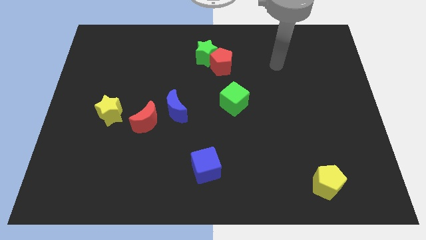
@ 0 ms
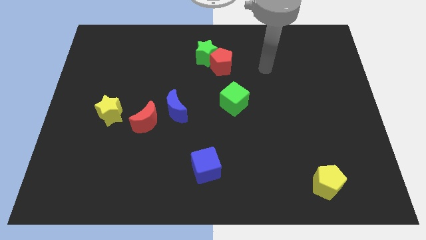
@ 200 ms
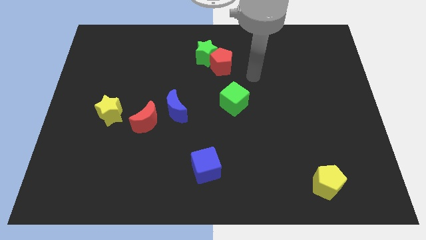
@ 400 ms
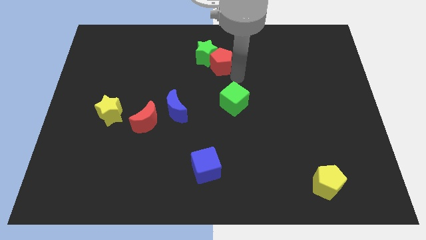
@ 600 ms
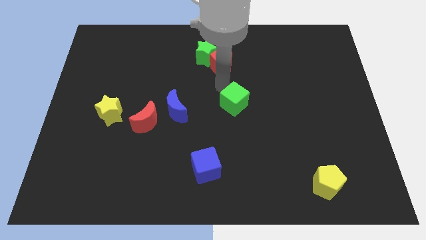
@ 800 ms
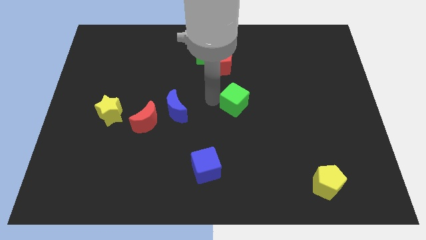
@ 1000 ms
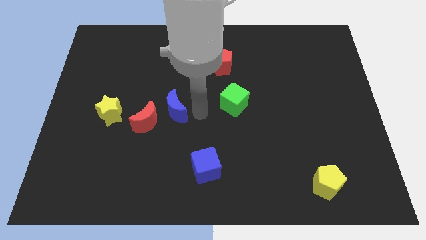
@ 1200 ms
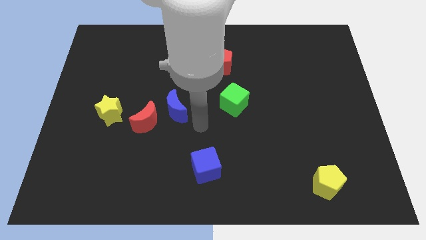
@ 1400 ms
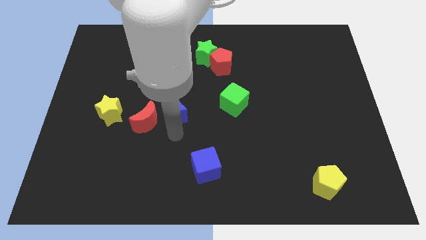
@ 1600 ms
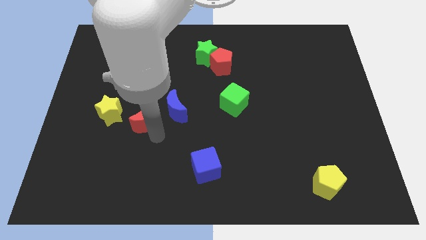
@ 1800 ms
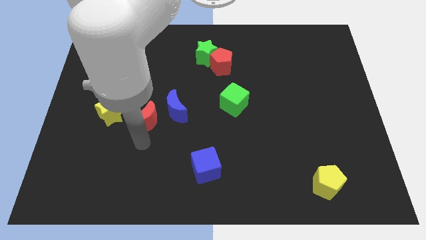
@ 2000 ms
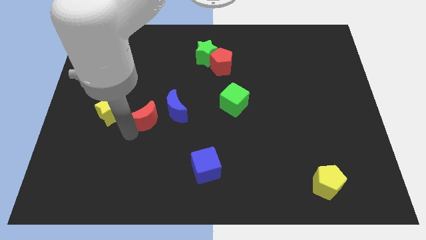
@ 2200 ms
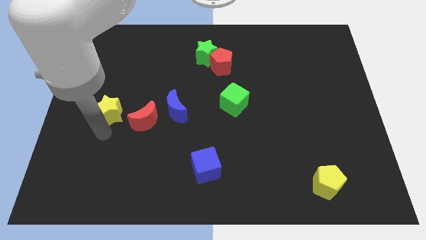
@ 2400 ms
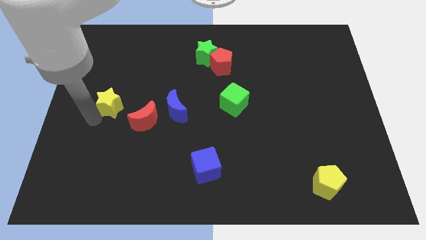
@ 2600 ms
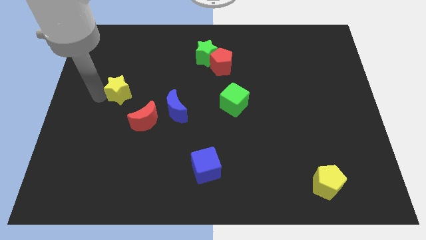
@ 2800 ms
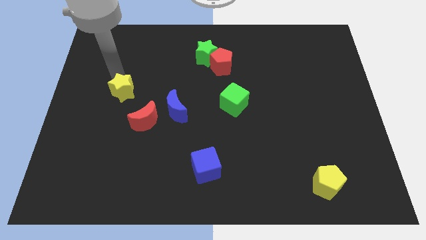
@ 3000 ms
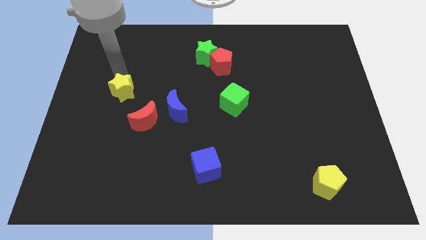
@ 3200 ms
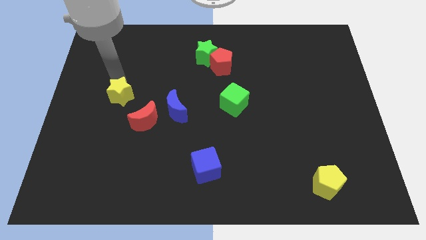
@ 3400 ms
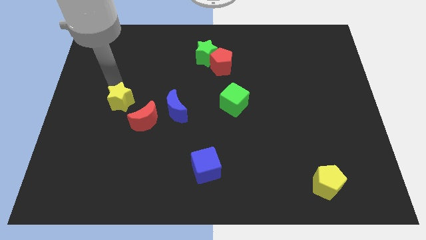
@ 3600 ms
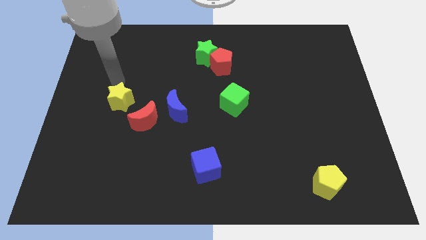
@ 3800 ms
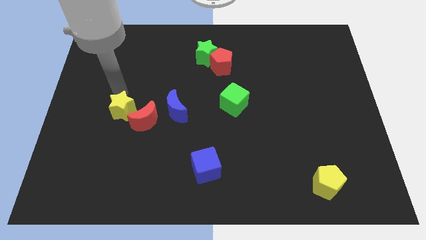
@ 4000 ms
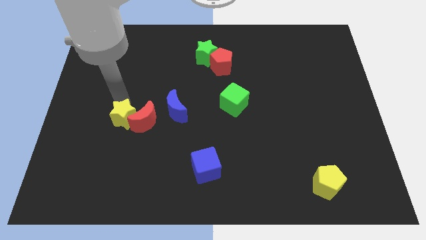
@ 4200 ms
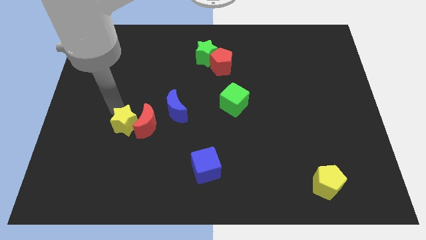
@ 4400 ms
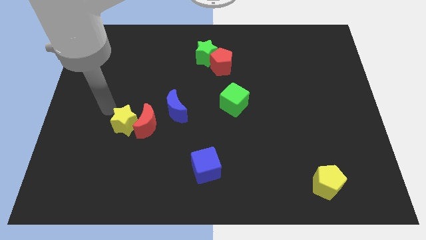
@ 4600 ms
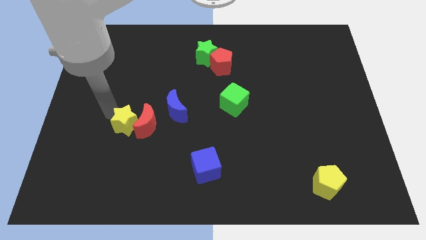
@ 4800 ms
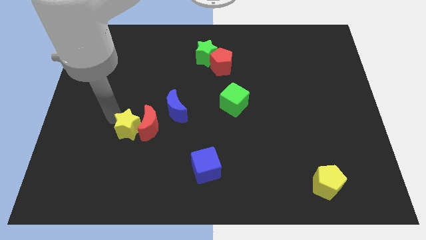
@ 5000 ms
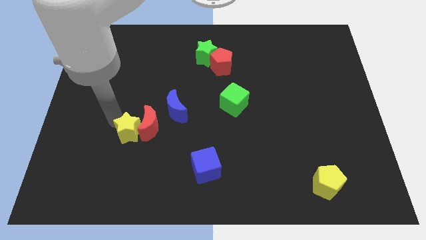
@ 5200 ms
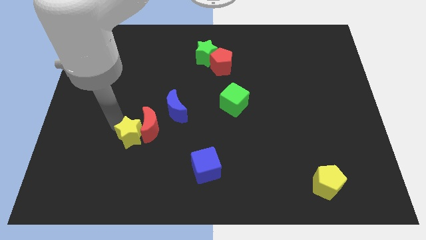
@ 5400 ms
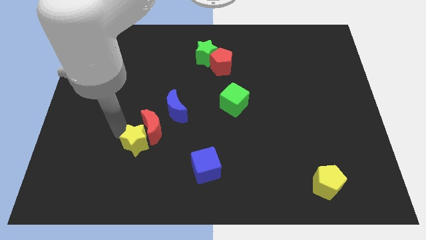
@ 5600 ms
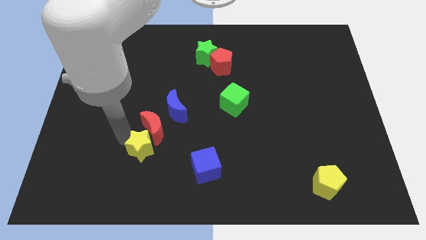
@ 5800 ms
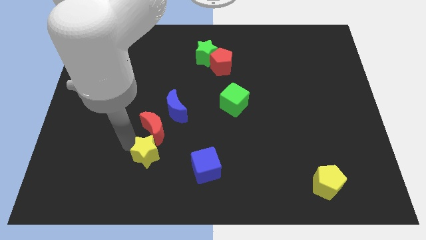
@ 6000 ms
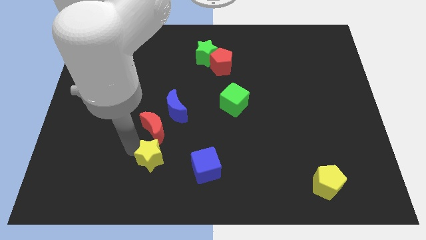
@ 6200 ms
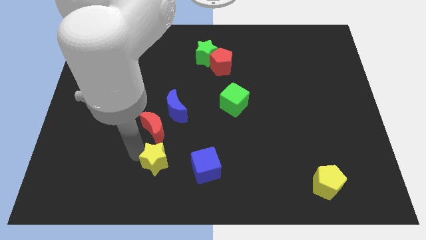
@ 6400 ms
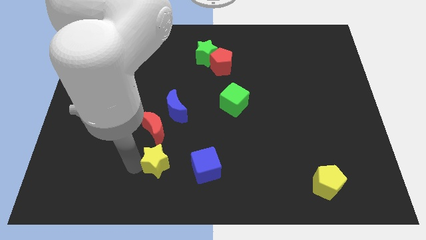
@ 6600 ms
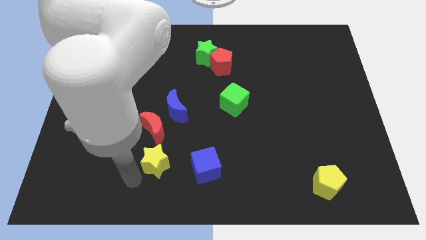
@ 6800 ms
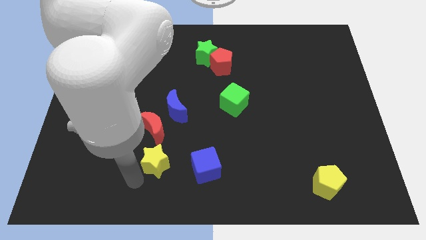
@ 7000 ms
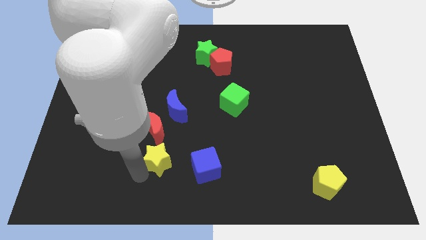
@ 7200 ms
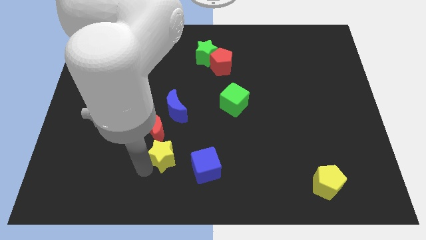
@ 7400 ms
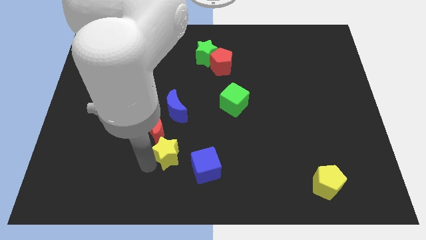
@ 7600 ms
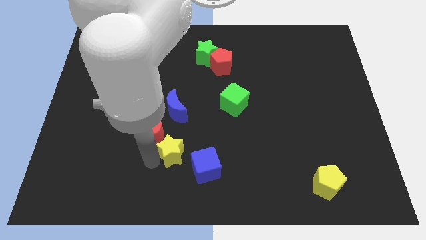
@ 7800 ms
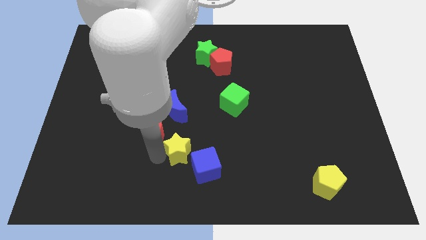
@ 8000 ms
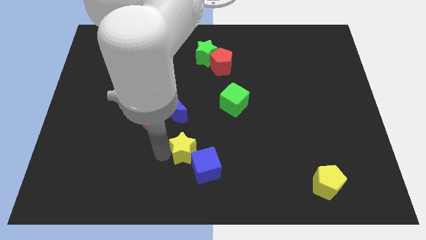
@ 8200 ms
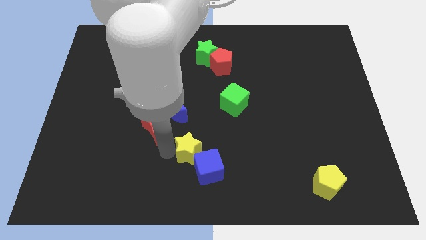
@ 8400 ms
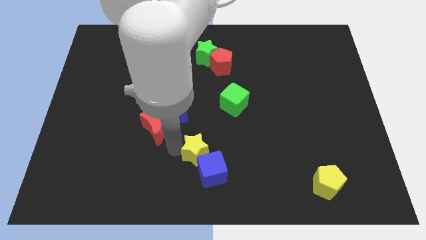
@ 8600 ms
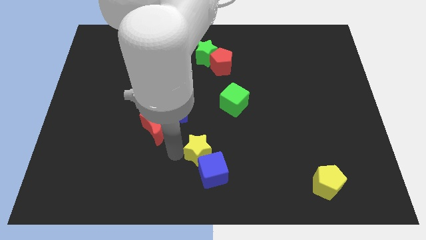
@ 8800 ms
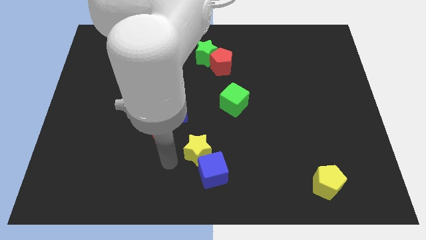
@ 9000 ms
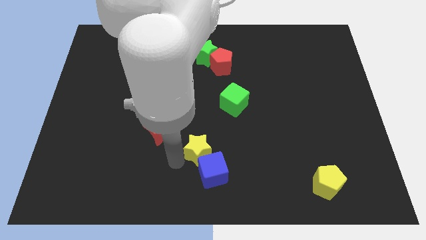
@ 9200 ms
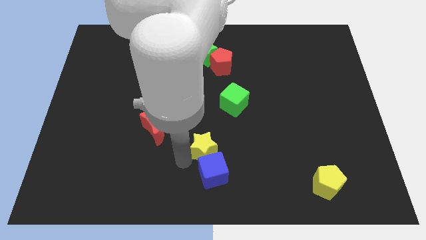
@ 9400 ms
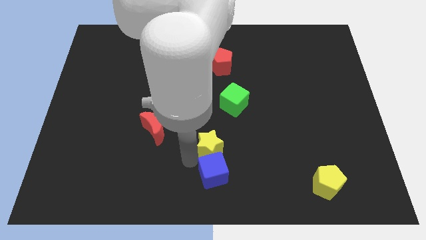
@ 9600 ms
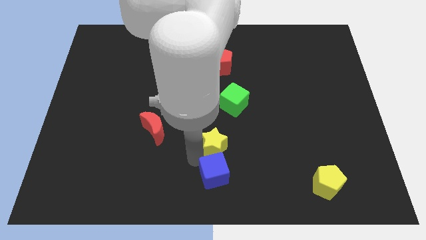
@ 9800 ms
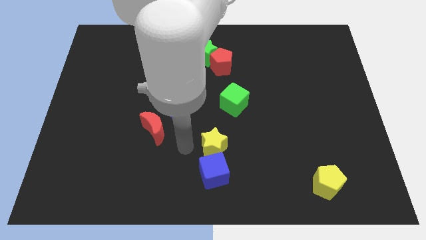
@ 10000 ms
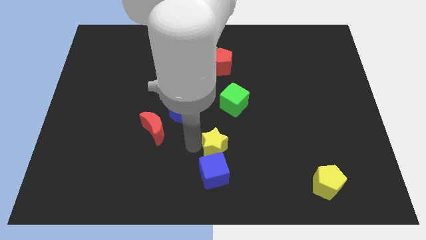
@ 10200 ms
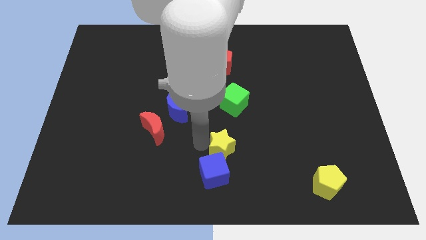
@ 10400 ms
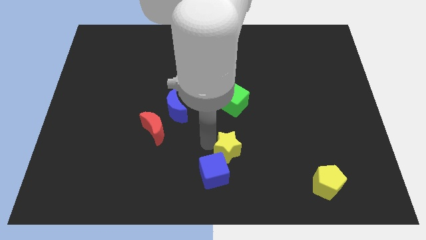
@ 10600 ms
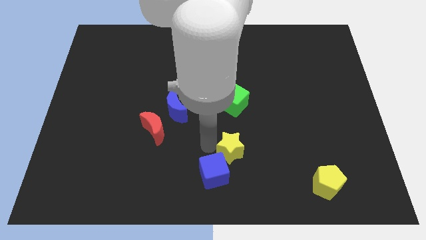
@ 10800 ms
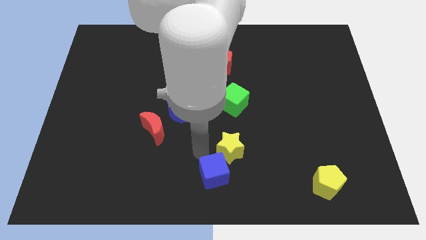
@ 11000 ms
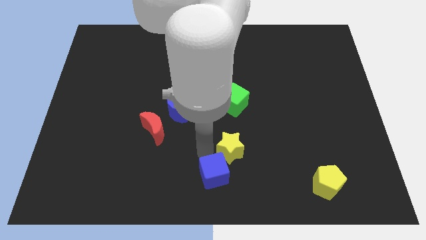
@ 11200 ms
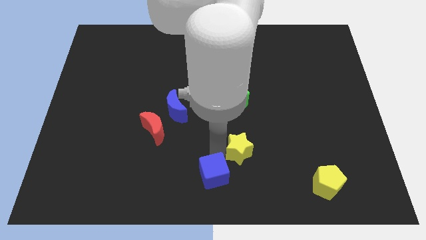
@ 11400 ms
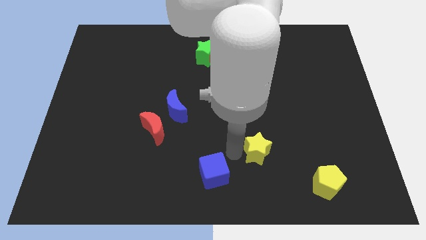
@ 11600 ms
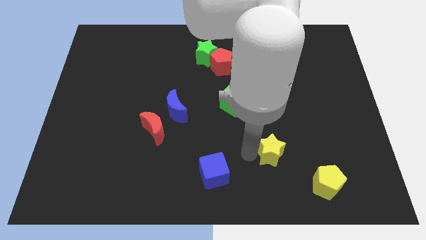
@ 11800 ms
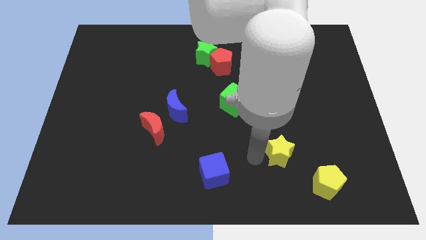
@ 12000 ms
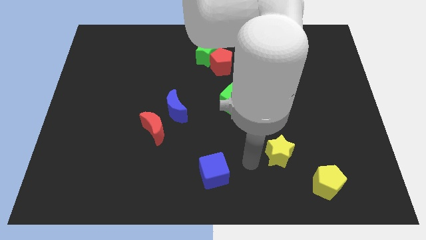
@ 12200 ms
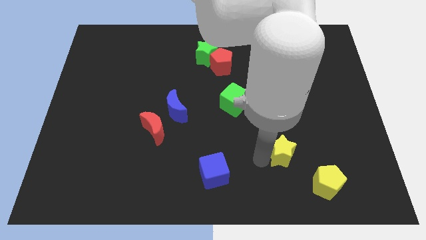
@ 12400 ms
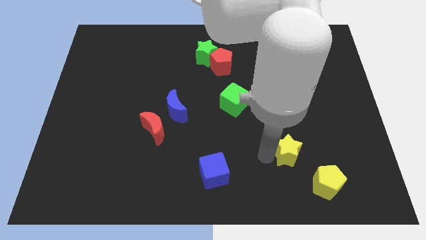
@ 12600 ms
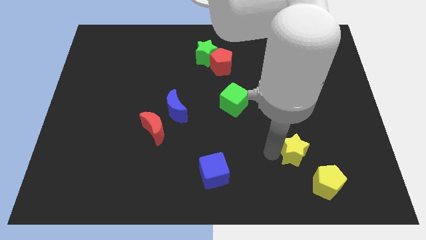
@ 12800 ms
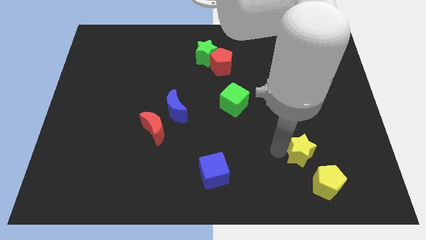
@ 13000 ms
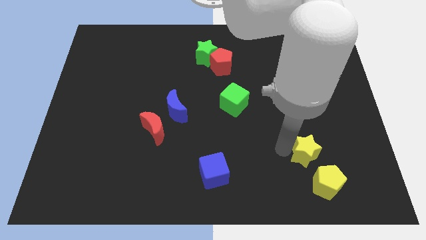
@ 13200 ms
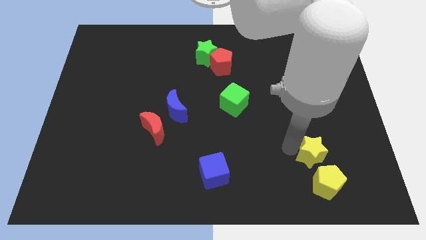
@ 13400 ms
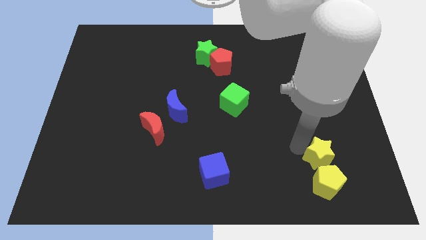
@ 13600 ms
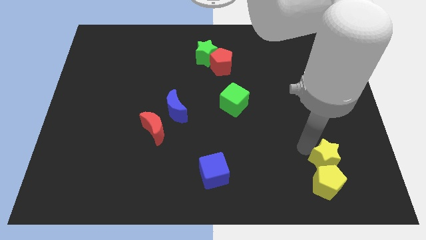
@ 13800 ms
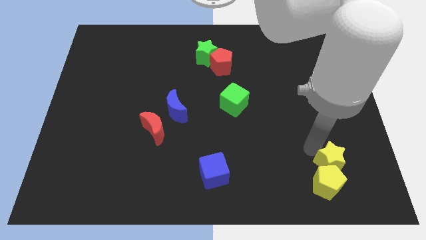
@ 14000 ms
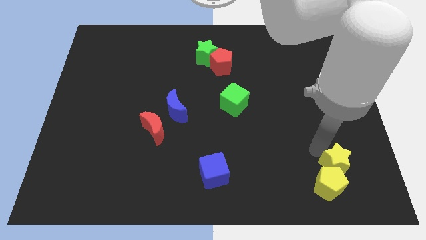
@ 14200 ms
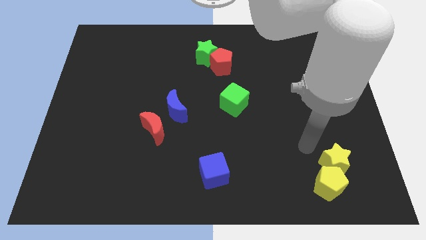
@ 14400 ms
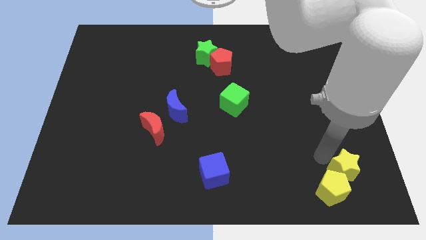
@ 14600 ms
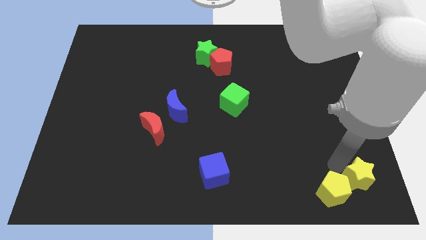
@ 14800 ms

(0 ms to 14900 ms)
push the yellow star to the bottom right corner
